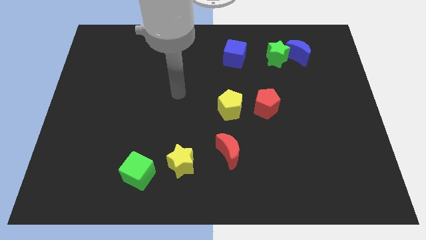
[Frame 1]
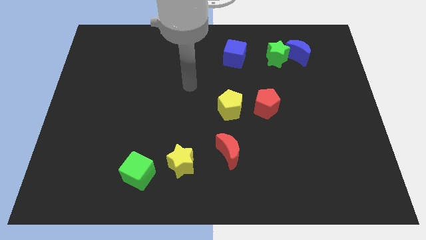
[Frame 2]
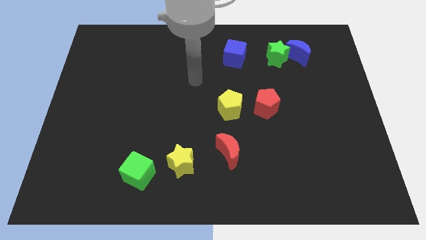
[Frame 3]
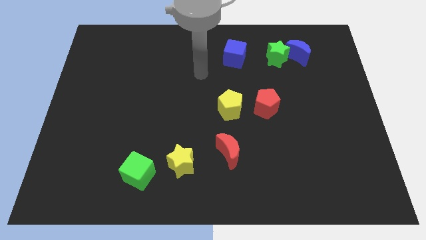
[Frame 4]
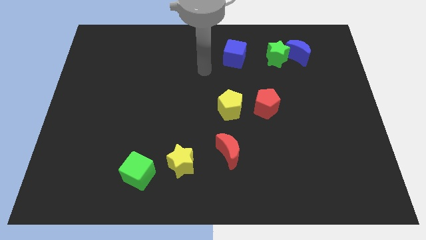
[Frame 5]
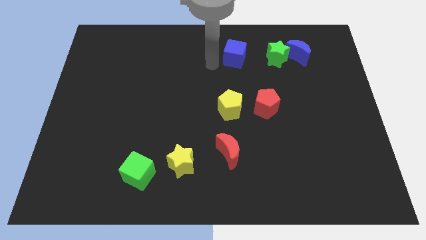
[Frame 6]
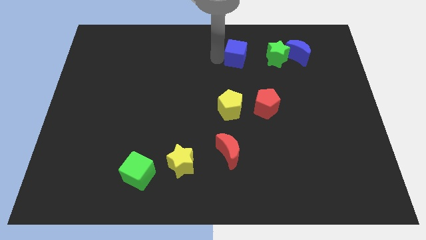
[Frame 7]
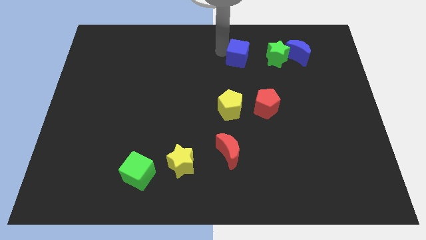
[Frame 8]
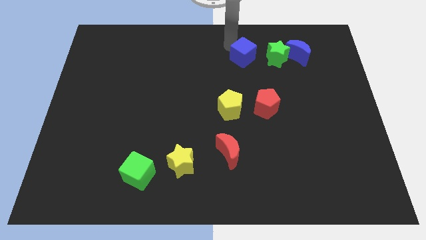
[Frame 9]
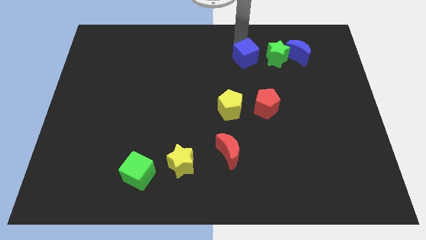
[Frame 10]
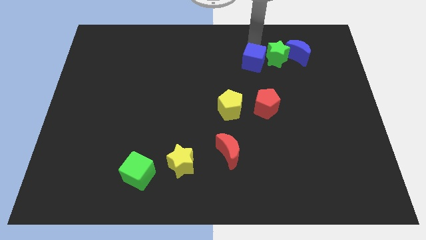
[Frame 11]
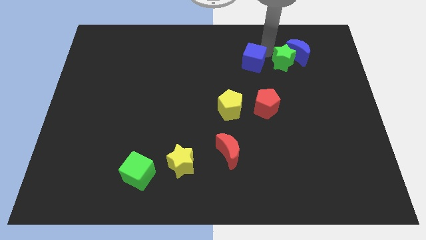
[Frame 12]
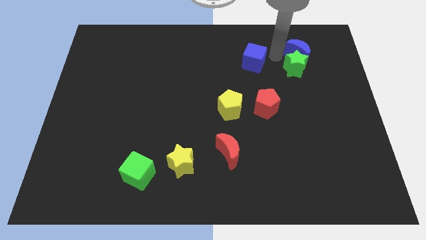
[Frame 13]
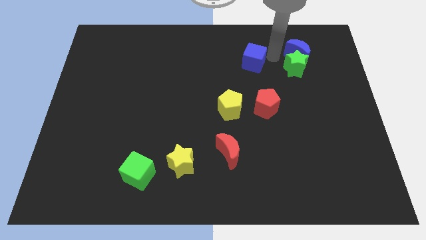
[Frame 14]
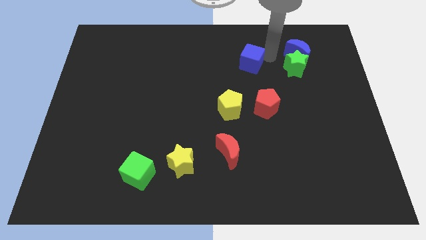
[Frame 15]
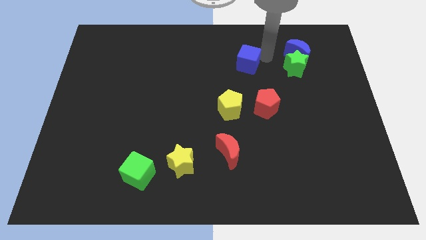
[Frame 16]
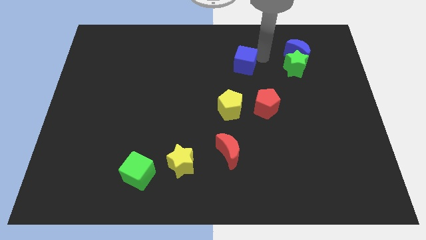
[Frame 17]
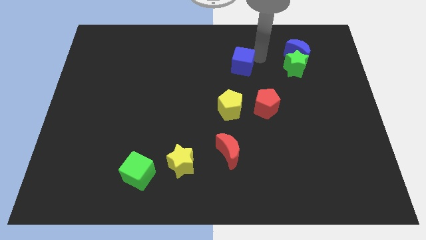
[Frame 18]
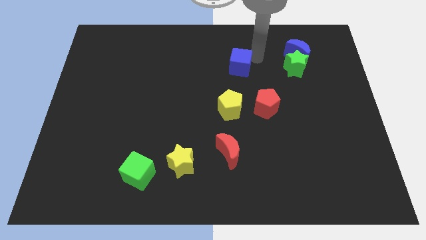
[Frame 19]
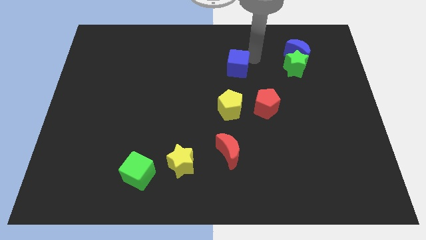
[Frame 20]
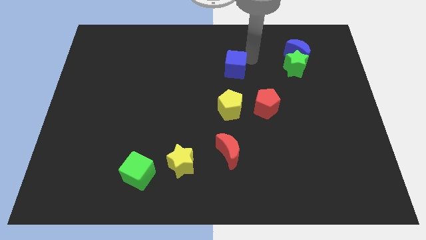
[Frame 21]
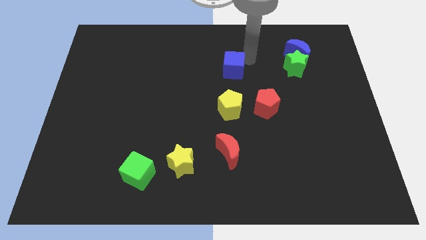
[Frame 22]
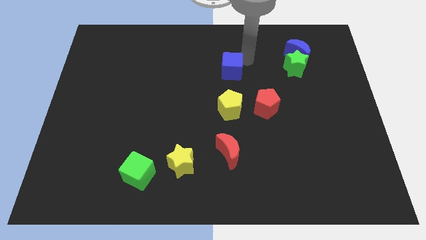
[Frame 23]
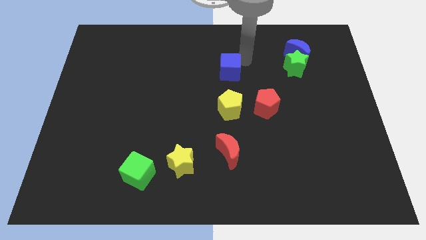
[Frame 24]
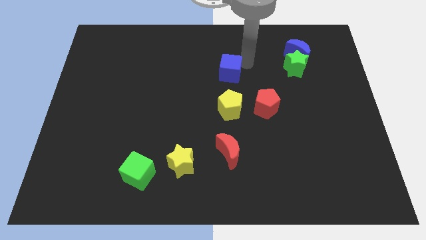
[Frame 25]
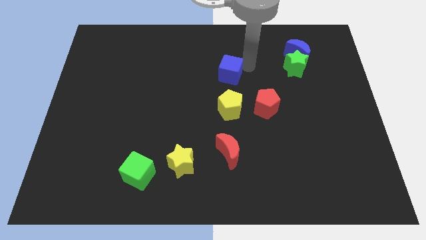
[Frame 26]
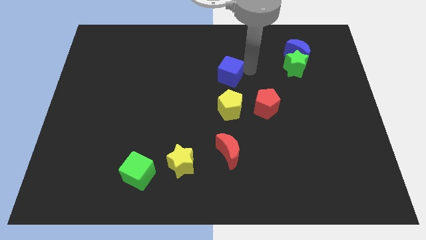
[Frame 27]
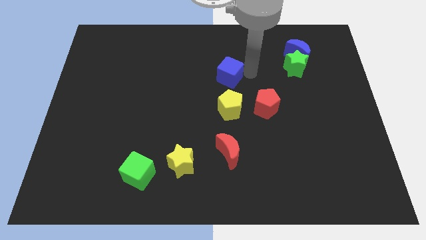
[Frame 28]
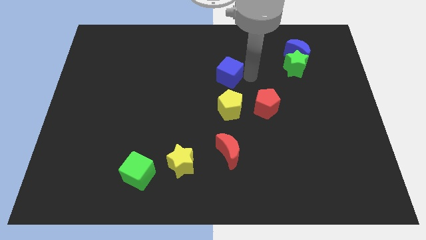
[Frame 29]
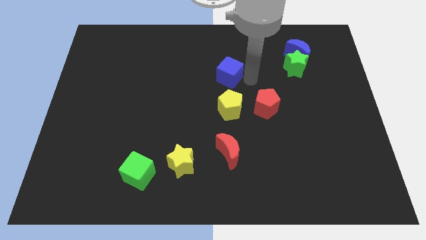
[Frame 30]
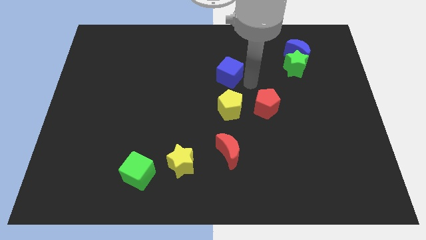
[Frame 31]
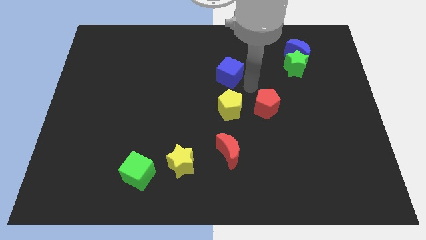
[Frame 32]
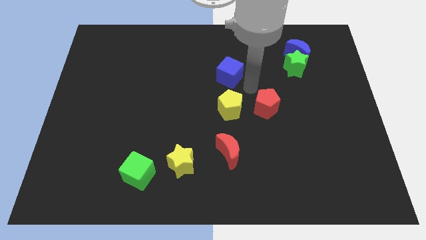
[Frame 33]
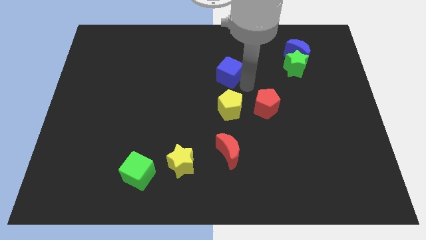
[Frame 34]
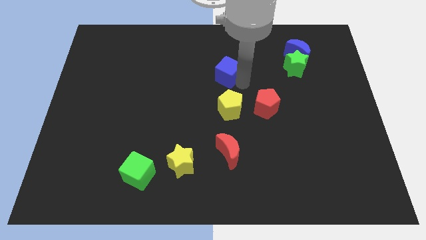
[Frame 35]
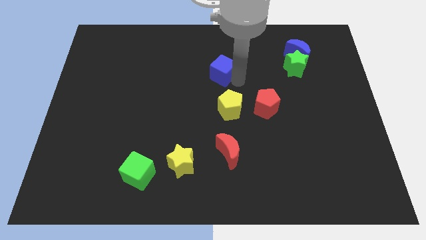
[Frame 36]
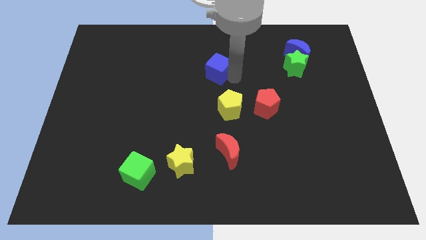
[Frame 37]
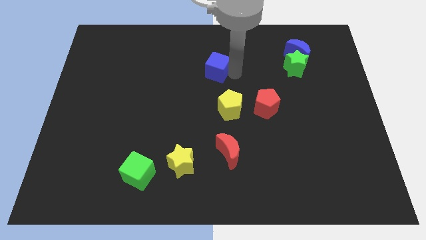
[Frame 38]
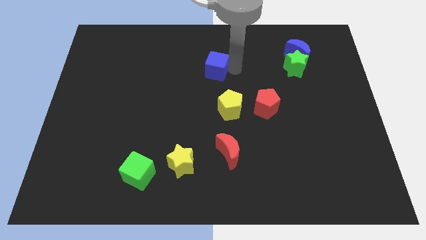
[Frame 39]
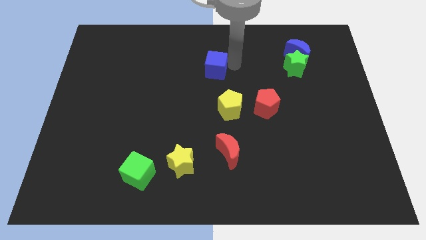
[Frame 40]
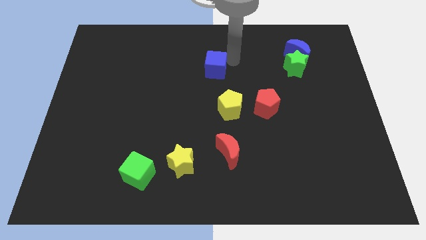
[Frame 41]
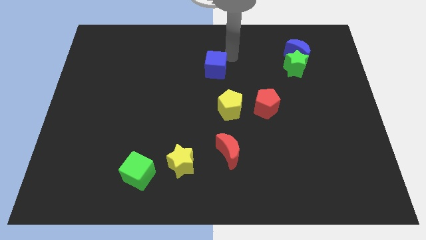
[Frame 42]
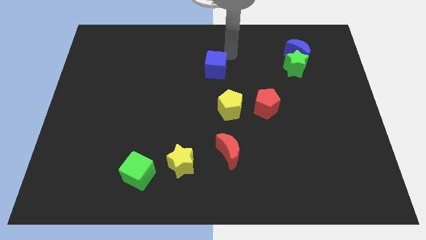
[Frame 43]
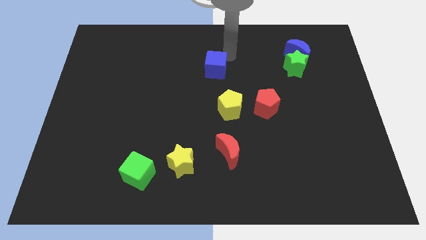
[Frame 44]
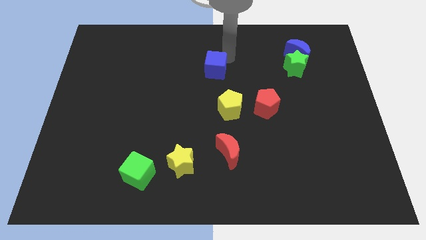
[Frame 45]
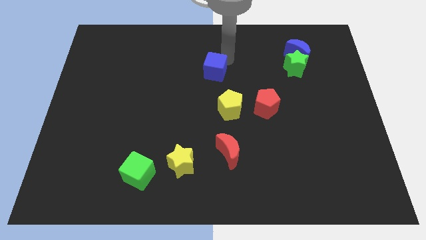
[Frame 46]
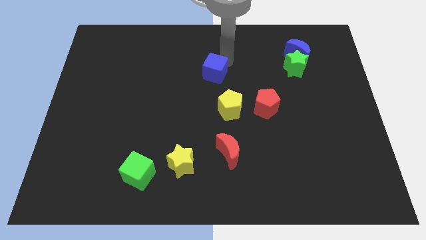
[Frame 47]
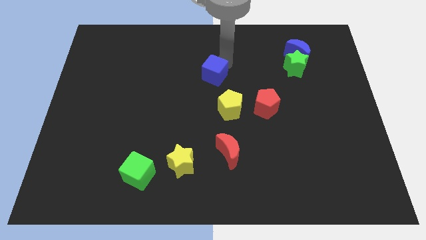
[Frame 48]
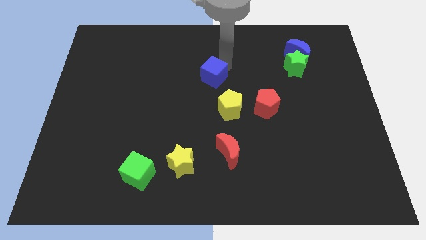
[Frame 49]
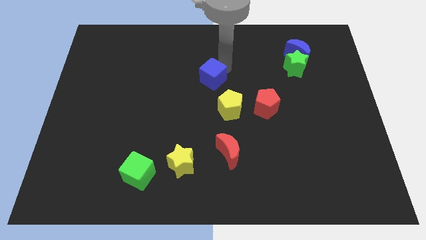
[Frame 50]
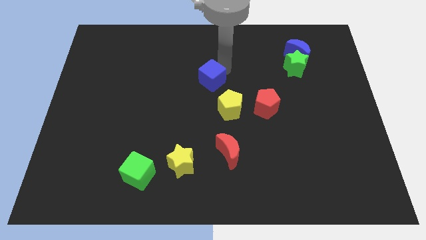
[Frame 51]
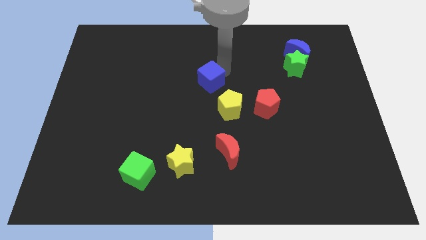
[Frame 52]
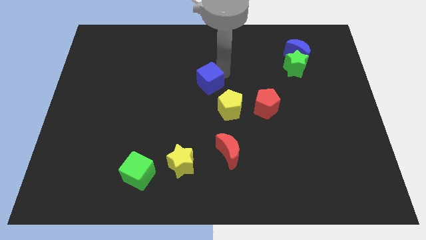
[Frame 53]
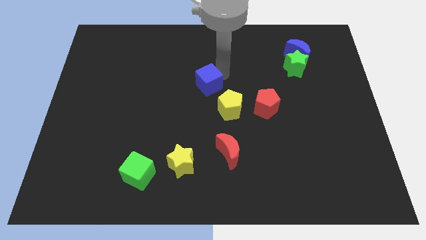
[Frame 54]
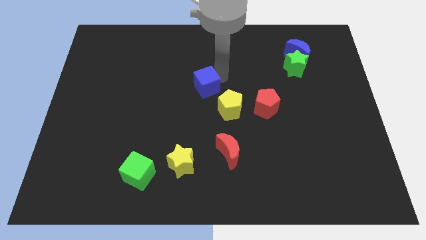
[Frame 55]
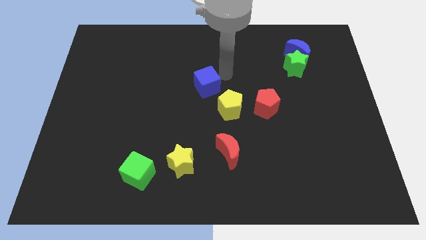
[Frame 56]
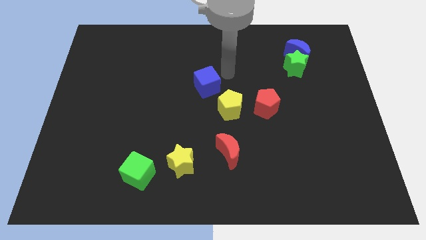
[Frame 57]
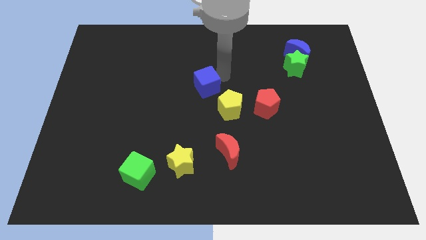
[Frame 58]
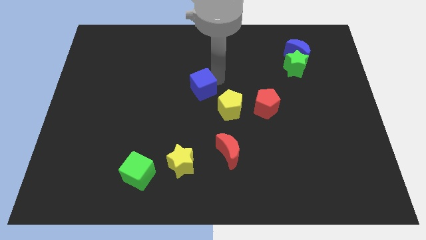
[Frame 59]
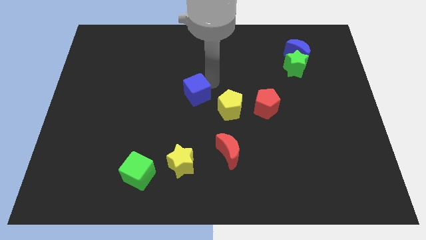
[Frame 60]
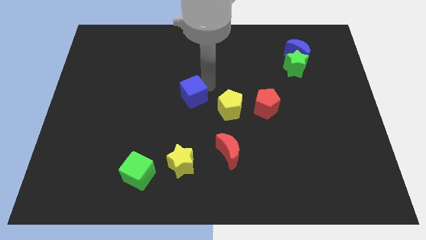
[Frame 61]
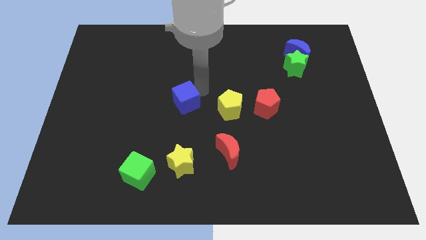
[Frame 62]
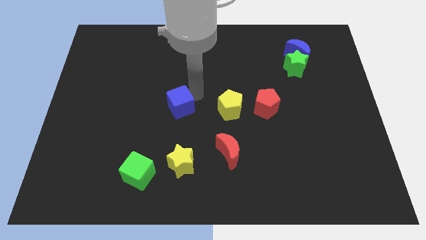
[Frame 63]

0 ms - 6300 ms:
move the blue cube down and to the left diagonally

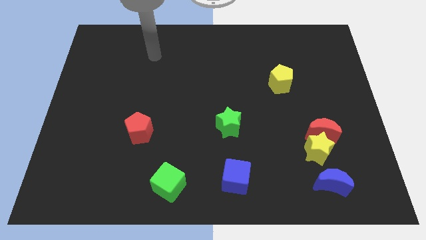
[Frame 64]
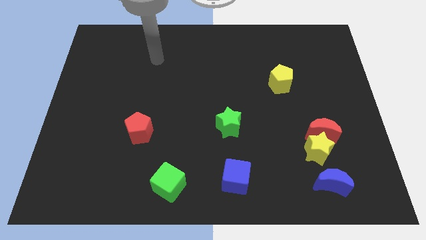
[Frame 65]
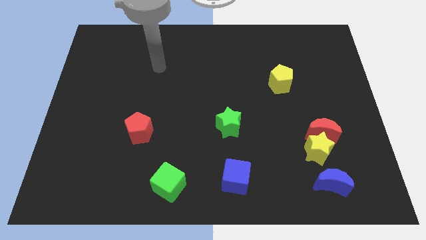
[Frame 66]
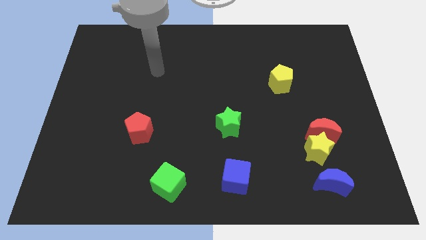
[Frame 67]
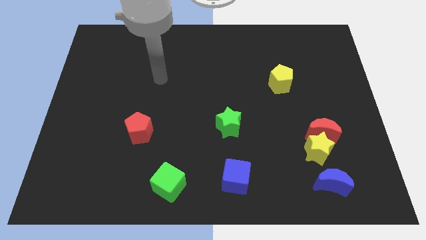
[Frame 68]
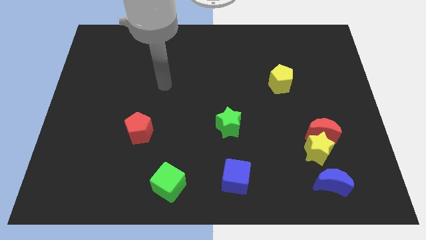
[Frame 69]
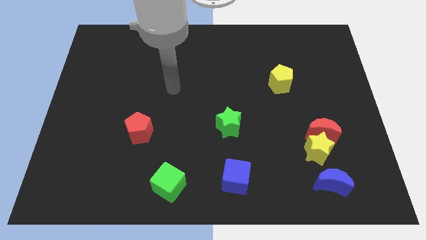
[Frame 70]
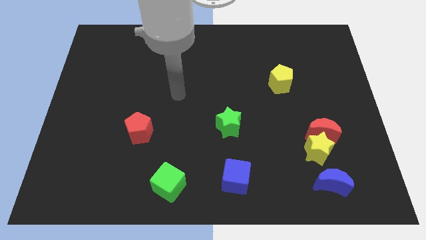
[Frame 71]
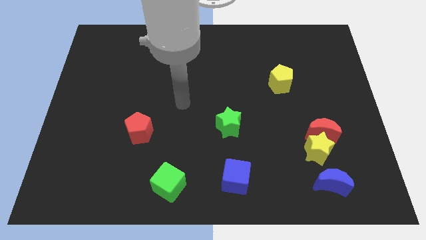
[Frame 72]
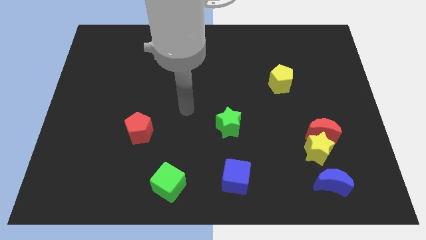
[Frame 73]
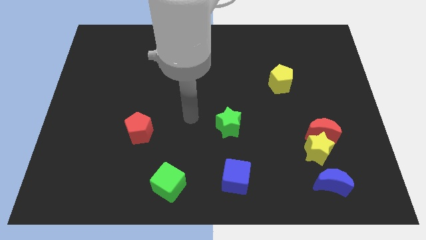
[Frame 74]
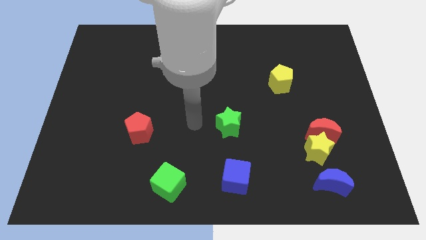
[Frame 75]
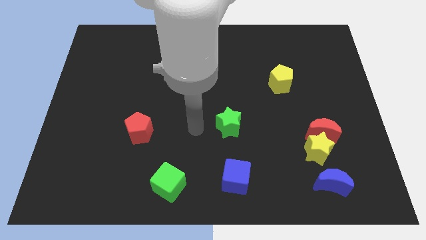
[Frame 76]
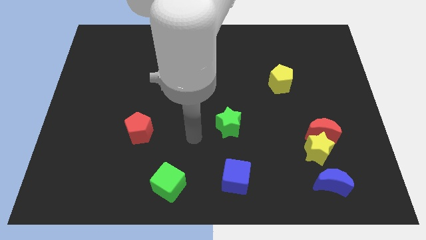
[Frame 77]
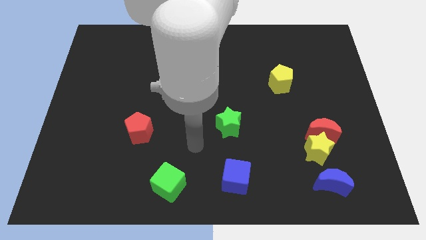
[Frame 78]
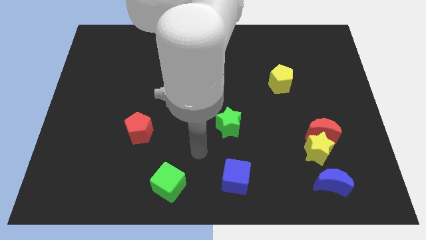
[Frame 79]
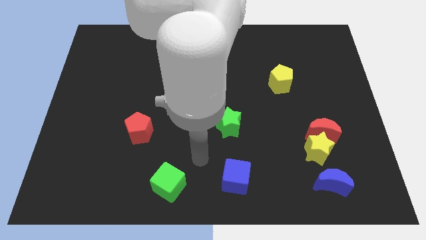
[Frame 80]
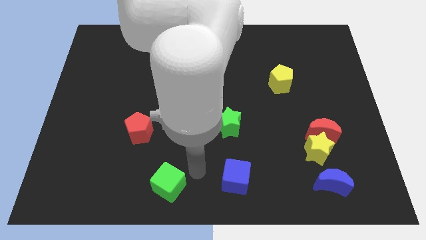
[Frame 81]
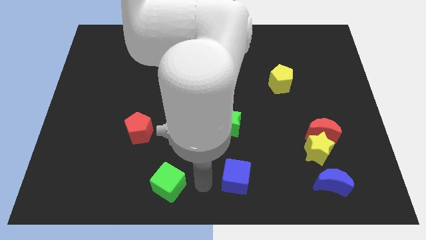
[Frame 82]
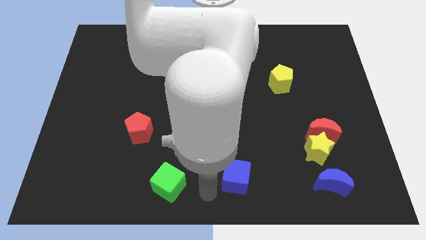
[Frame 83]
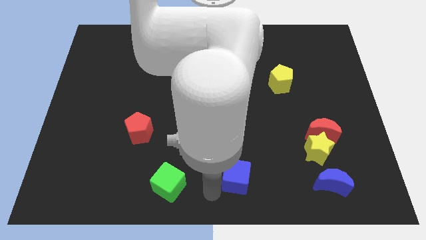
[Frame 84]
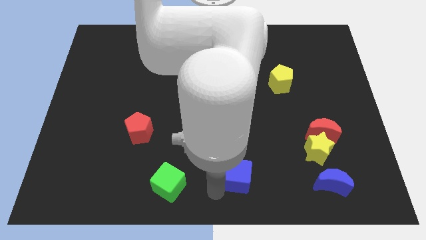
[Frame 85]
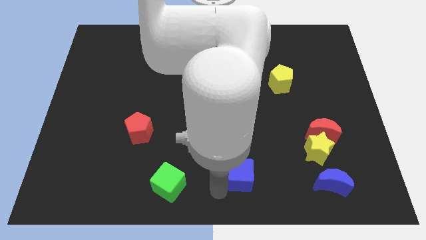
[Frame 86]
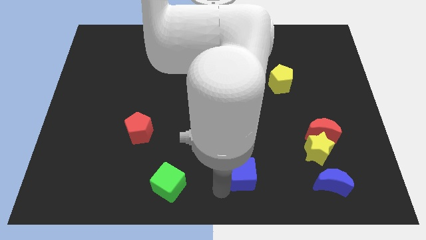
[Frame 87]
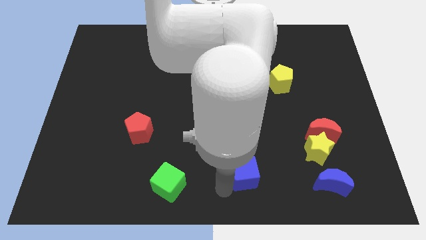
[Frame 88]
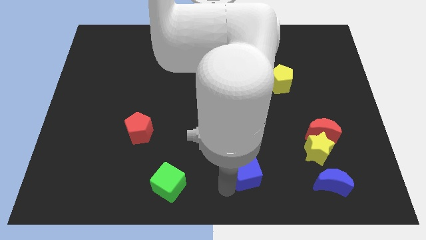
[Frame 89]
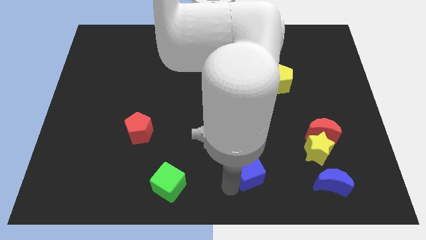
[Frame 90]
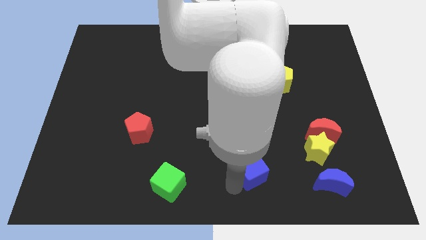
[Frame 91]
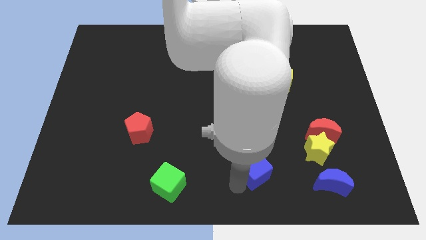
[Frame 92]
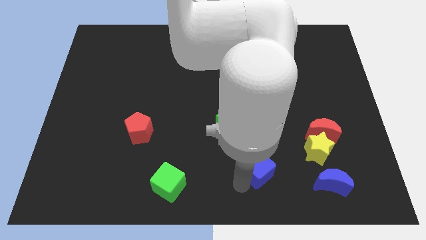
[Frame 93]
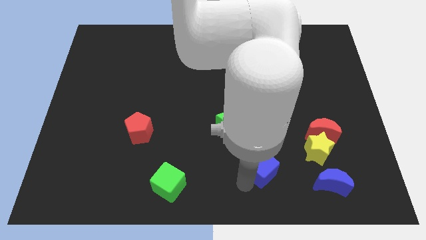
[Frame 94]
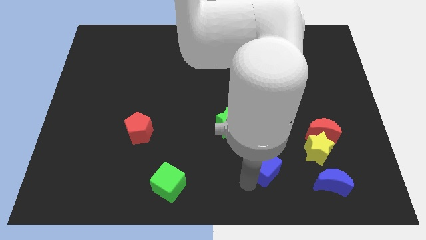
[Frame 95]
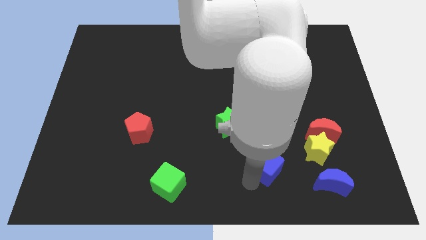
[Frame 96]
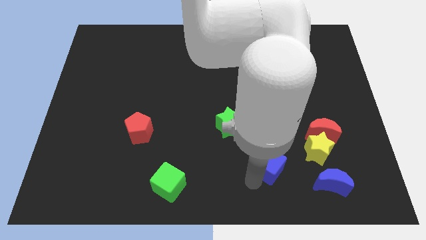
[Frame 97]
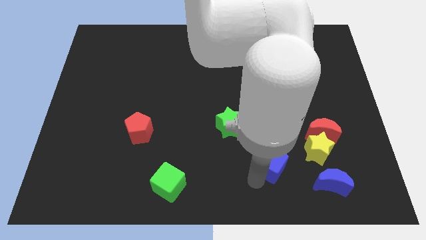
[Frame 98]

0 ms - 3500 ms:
slightly push the blue cube diagonally up and to the right
